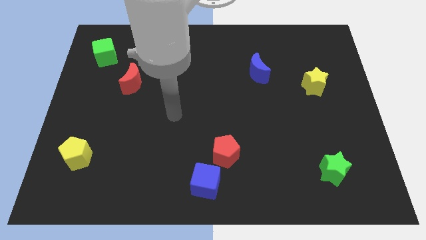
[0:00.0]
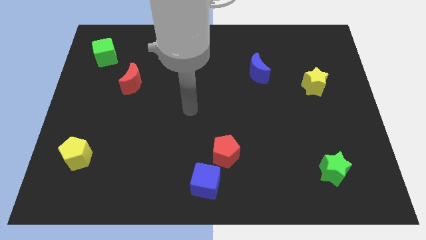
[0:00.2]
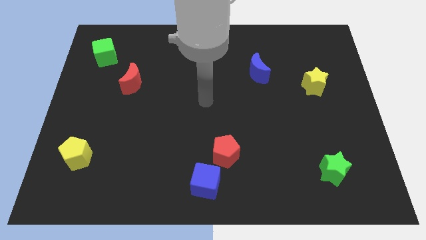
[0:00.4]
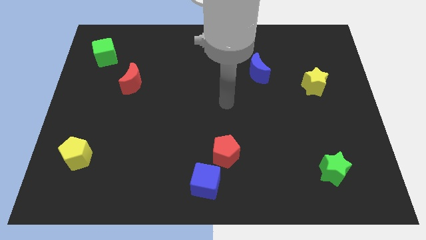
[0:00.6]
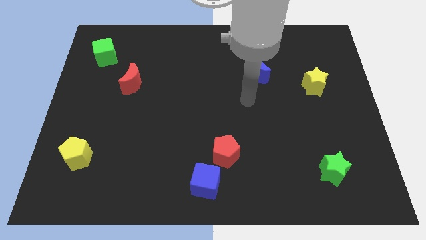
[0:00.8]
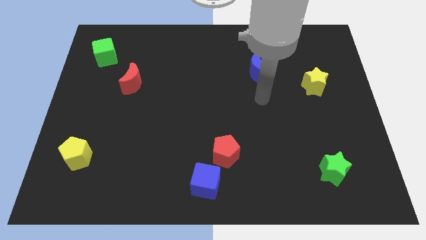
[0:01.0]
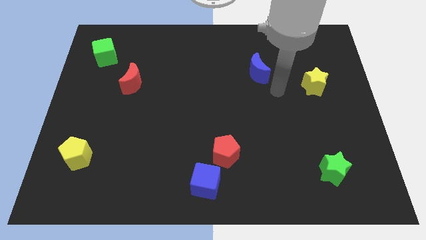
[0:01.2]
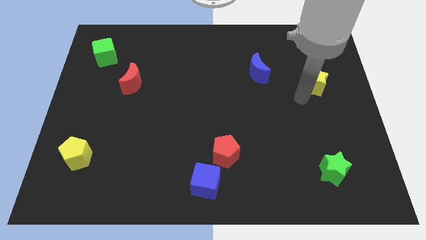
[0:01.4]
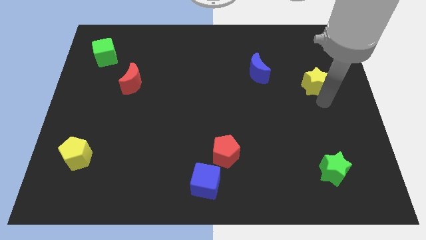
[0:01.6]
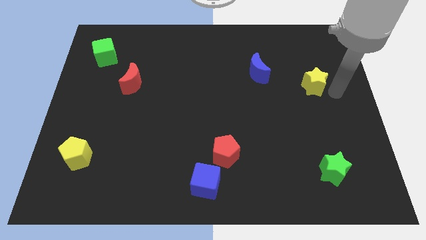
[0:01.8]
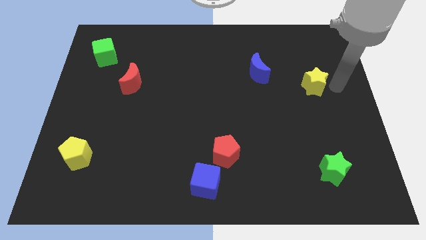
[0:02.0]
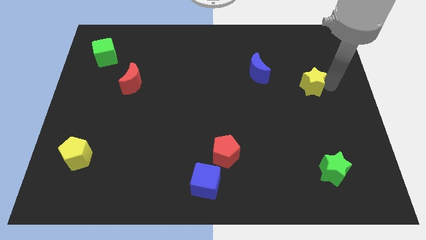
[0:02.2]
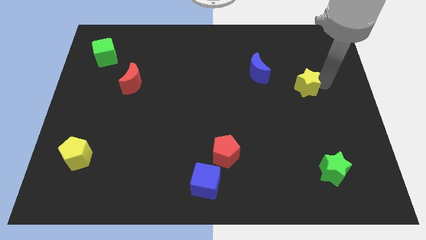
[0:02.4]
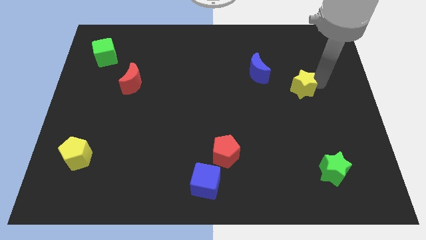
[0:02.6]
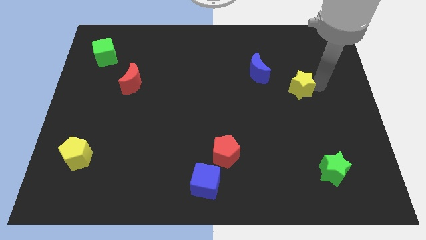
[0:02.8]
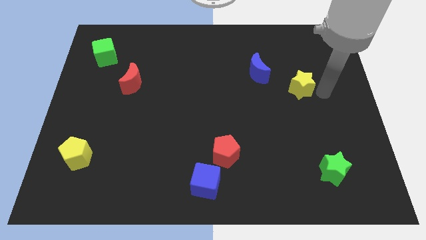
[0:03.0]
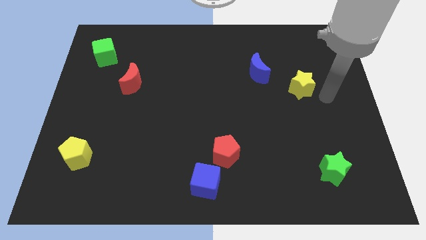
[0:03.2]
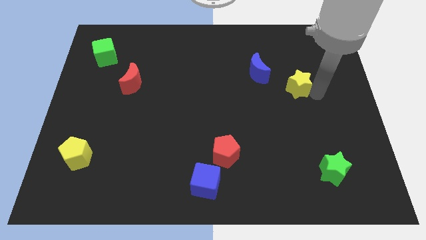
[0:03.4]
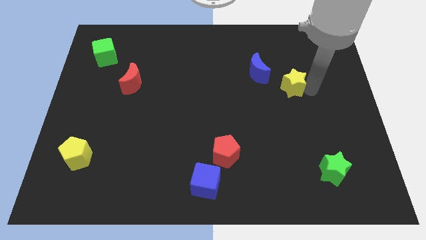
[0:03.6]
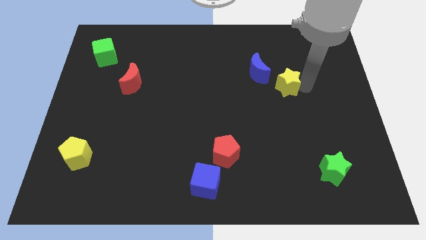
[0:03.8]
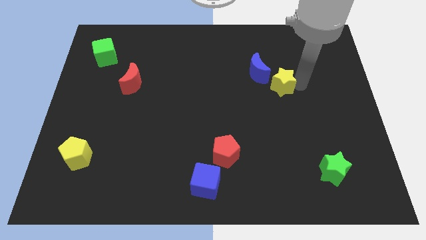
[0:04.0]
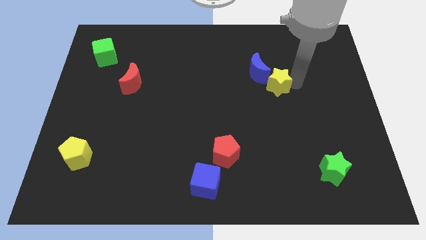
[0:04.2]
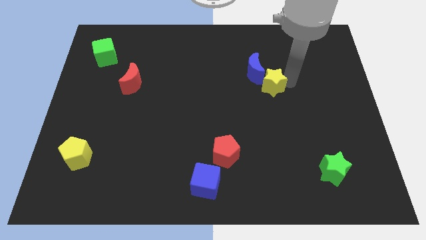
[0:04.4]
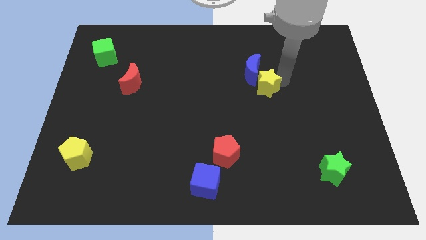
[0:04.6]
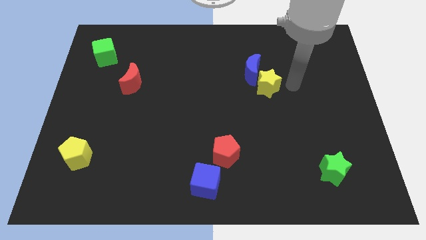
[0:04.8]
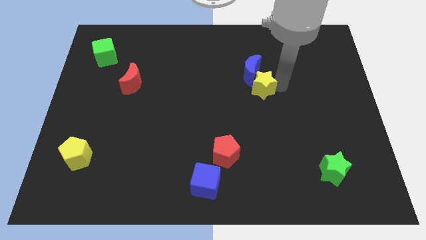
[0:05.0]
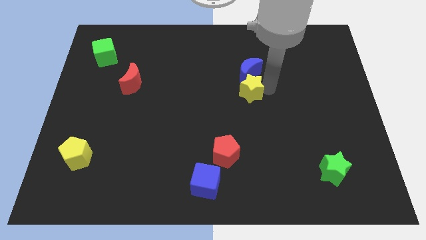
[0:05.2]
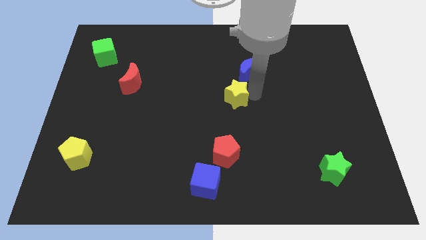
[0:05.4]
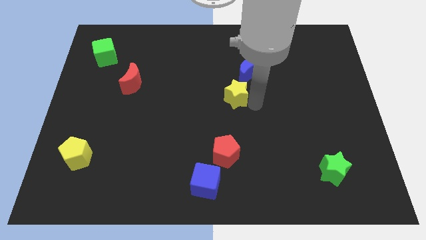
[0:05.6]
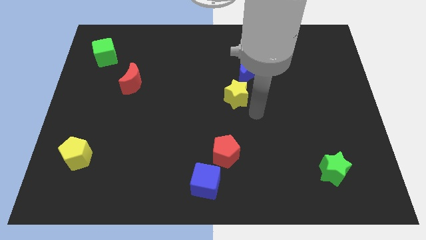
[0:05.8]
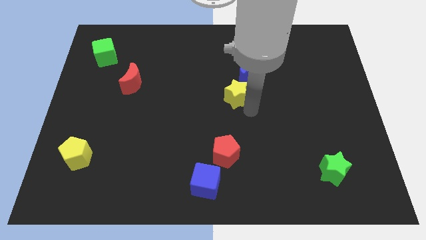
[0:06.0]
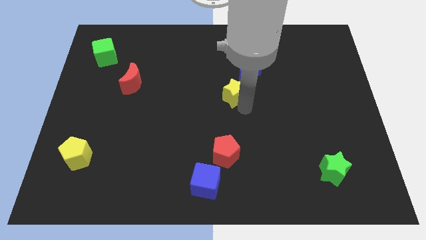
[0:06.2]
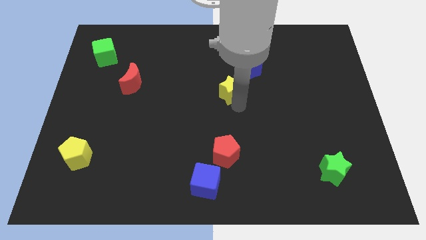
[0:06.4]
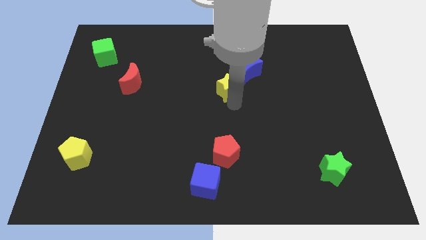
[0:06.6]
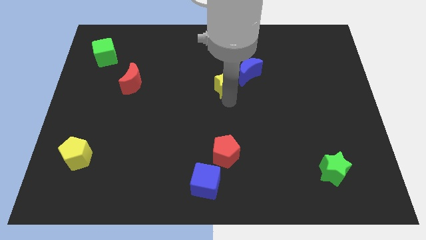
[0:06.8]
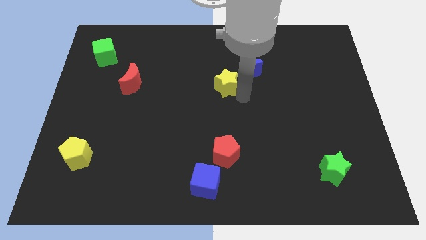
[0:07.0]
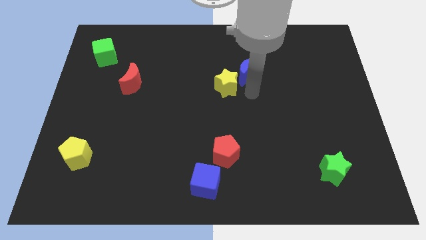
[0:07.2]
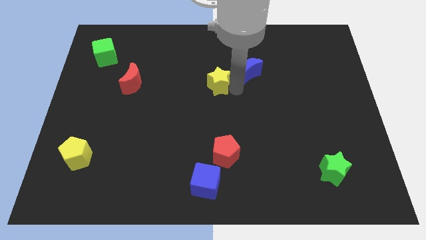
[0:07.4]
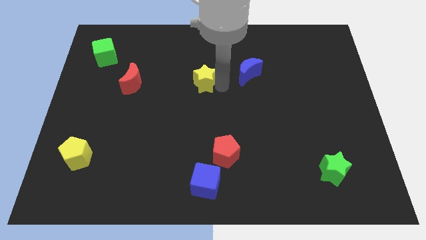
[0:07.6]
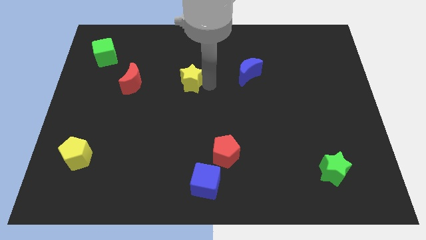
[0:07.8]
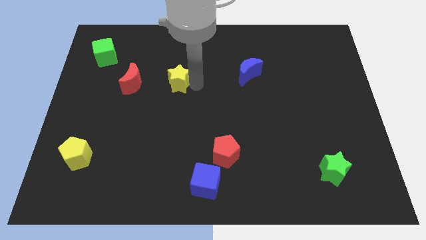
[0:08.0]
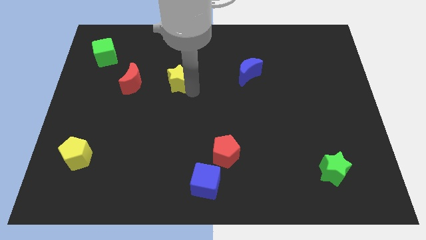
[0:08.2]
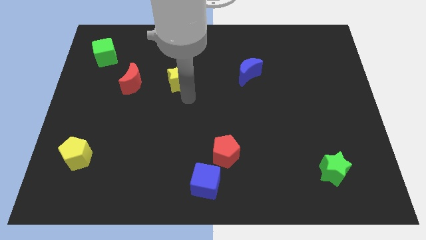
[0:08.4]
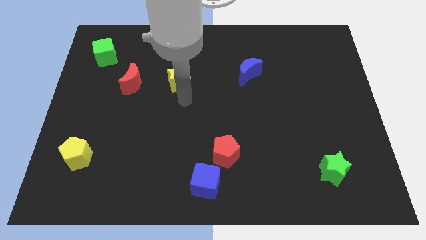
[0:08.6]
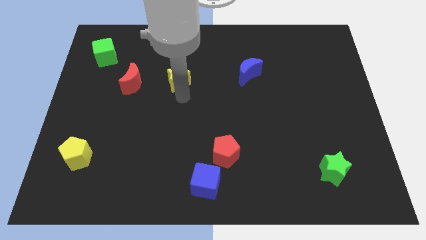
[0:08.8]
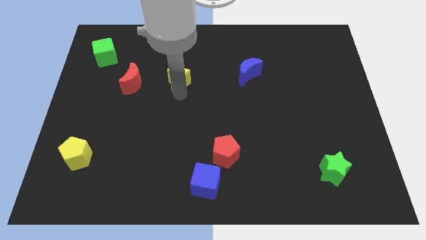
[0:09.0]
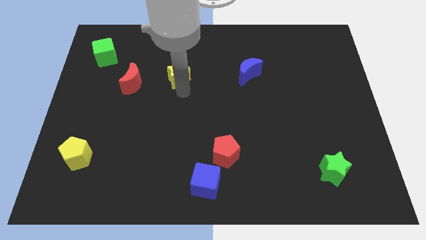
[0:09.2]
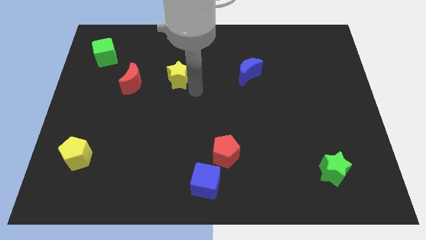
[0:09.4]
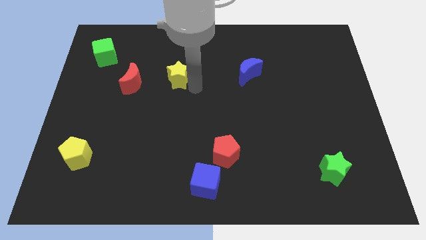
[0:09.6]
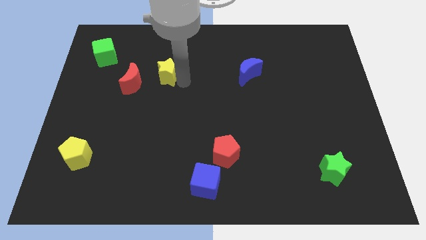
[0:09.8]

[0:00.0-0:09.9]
push the yellow star diagonally up and to the right of the red moon

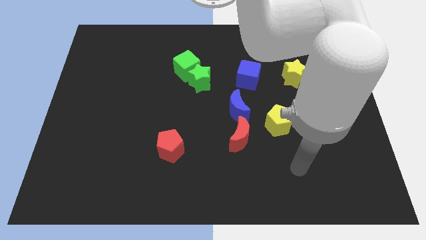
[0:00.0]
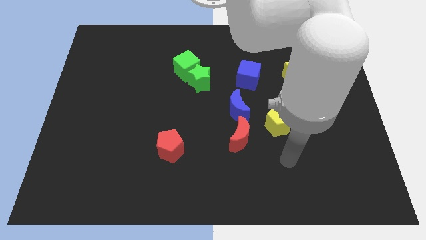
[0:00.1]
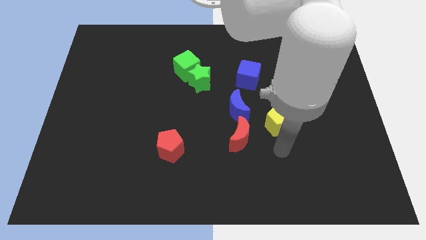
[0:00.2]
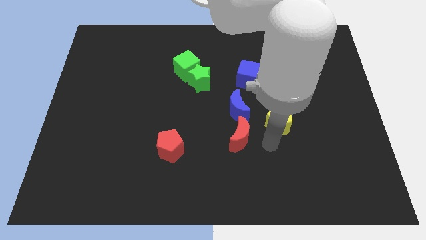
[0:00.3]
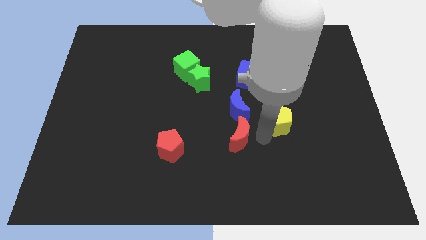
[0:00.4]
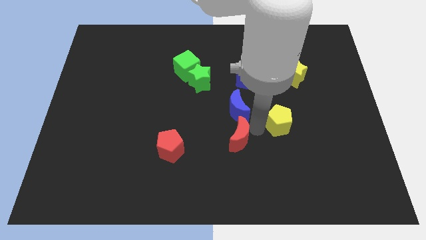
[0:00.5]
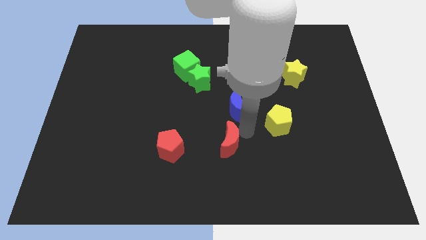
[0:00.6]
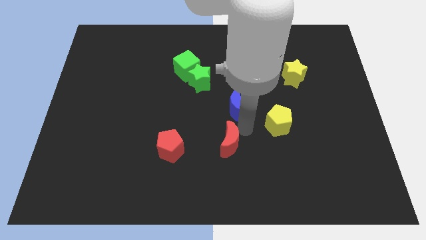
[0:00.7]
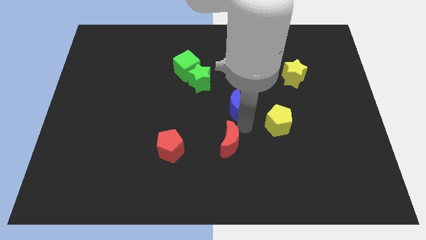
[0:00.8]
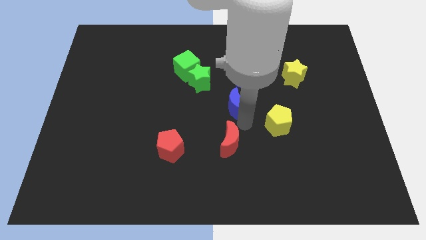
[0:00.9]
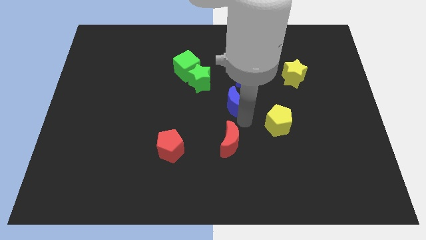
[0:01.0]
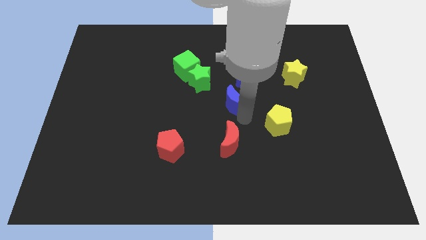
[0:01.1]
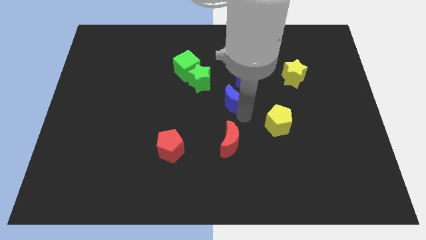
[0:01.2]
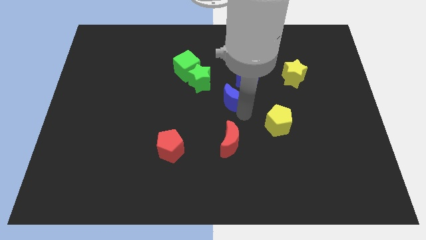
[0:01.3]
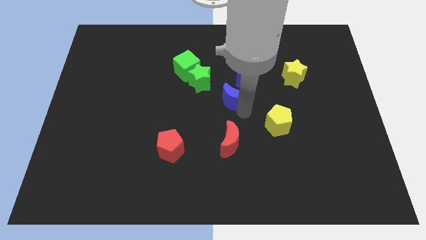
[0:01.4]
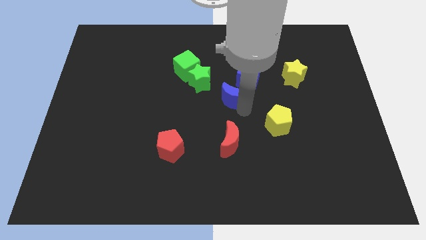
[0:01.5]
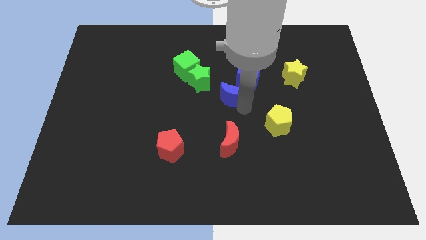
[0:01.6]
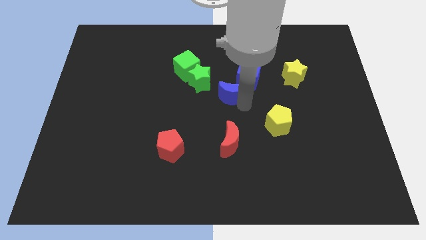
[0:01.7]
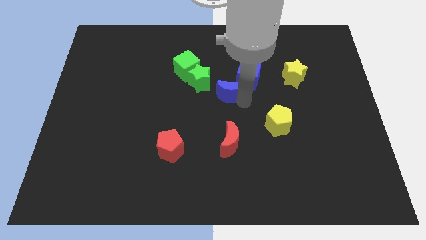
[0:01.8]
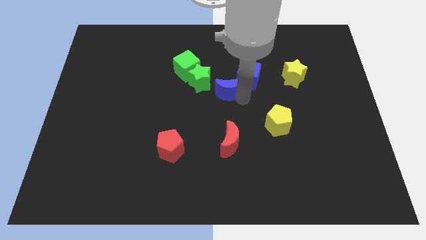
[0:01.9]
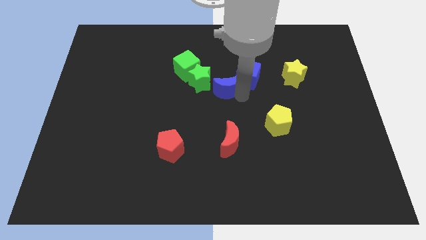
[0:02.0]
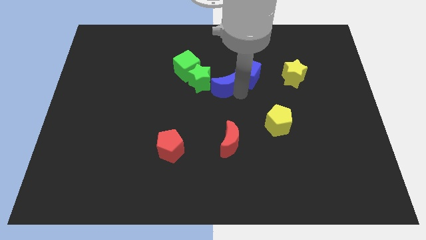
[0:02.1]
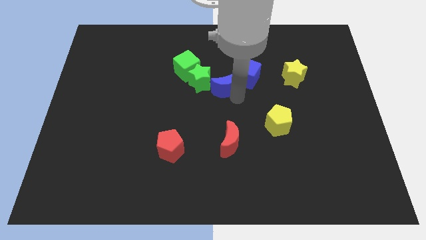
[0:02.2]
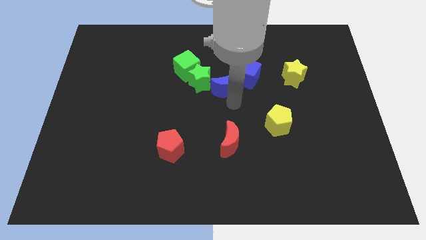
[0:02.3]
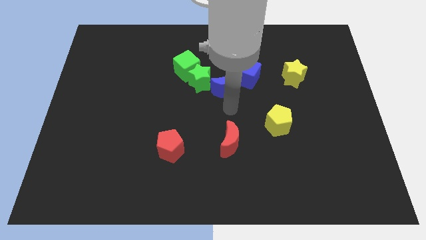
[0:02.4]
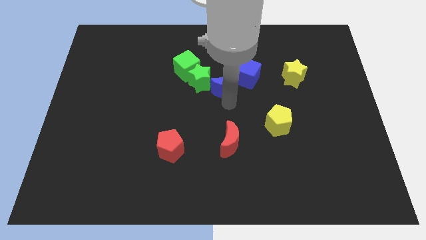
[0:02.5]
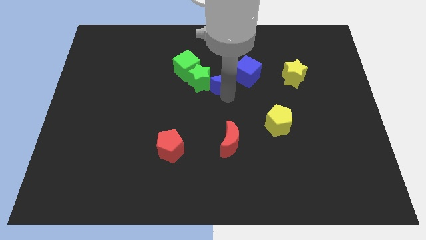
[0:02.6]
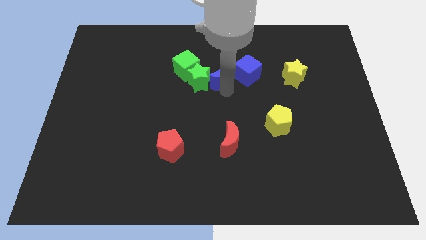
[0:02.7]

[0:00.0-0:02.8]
slide the blue moon to the top right side of the green star
